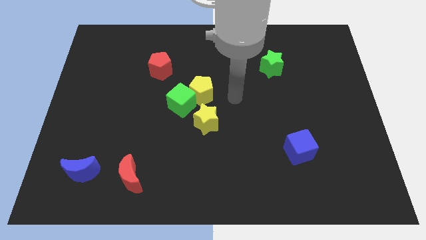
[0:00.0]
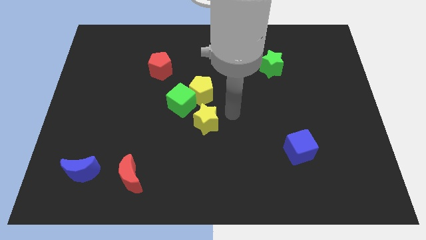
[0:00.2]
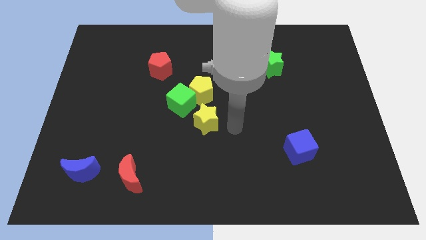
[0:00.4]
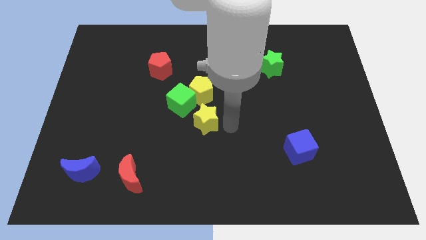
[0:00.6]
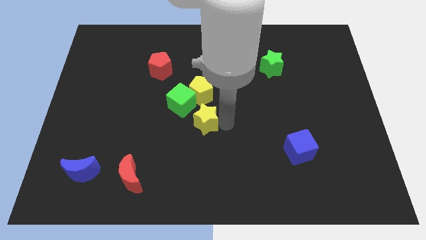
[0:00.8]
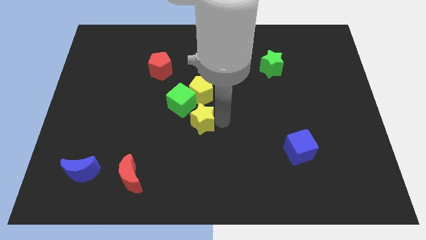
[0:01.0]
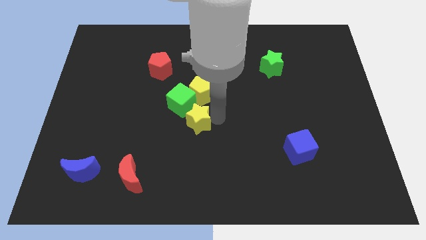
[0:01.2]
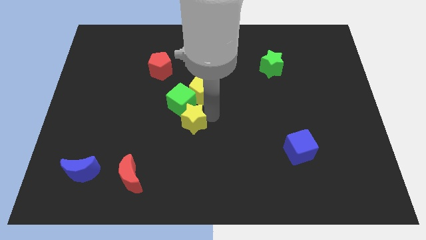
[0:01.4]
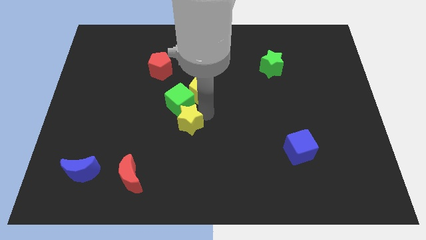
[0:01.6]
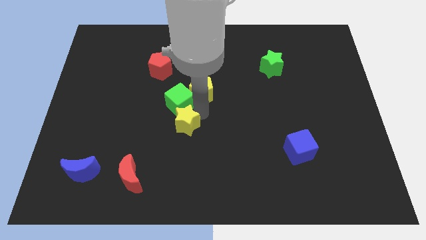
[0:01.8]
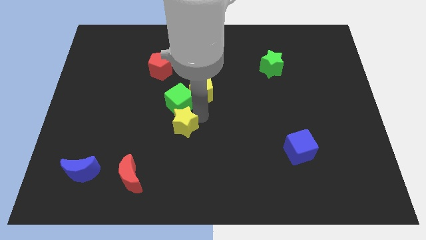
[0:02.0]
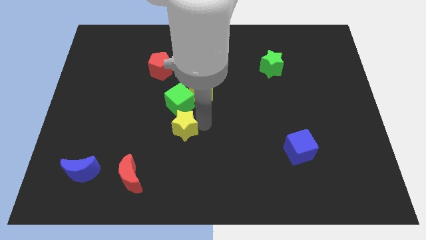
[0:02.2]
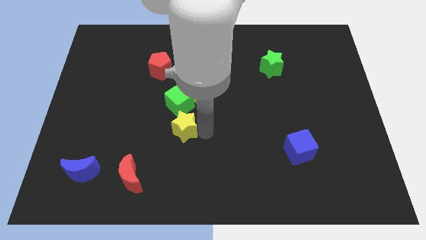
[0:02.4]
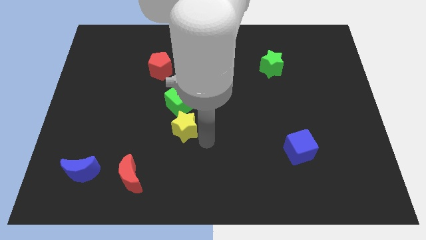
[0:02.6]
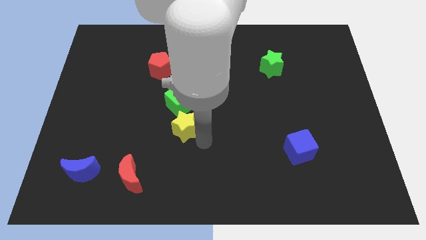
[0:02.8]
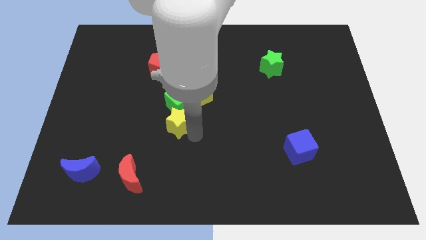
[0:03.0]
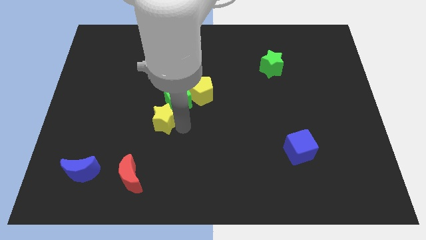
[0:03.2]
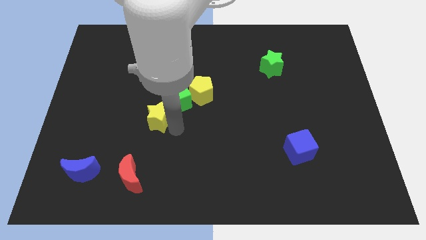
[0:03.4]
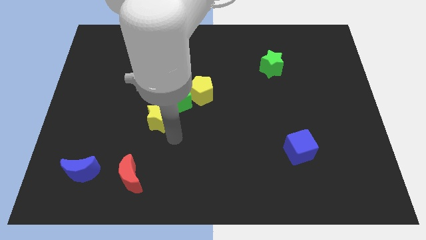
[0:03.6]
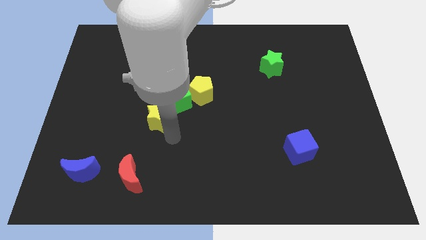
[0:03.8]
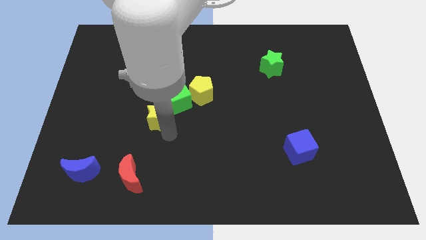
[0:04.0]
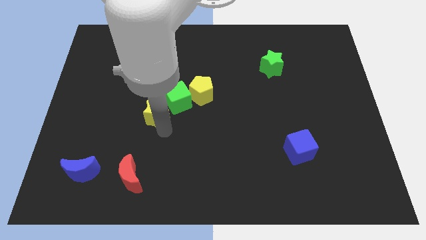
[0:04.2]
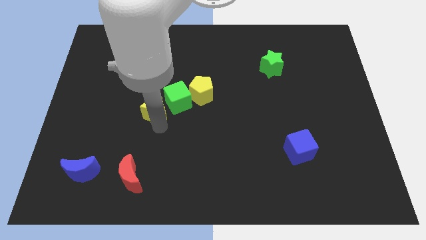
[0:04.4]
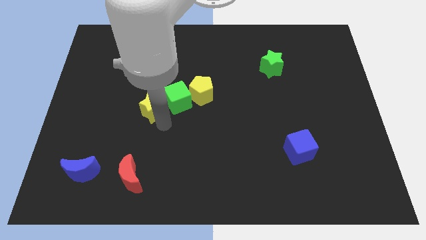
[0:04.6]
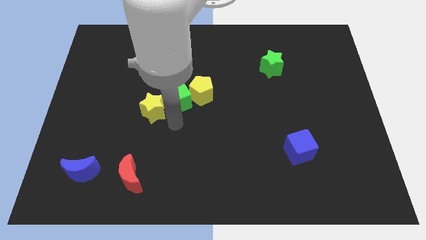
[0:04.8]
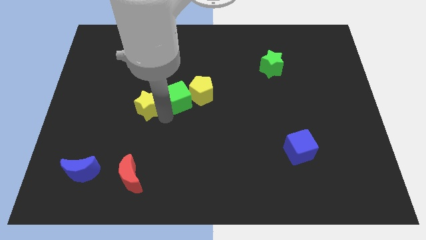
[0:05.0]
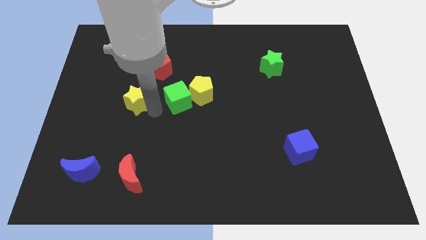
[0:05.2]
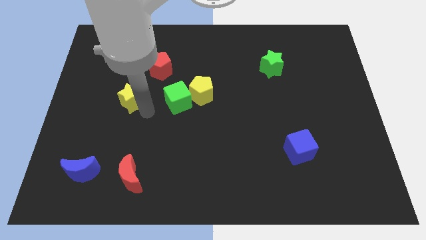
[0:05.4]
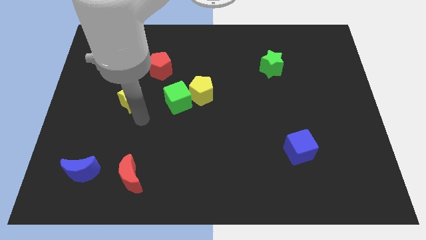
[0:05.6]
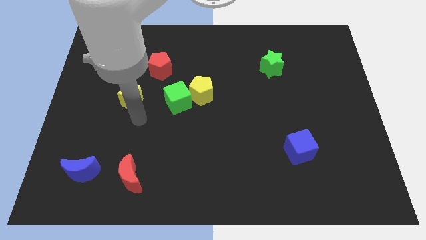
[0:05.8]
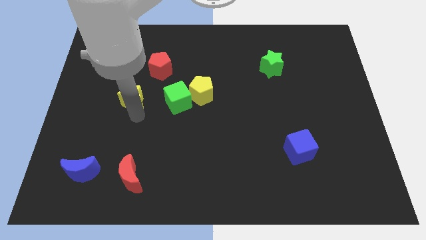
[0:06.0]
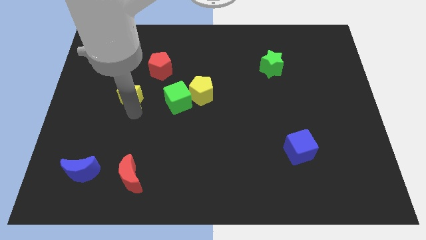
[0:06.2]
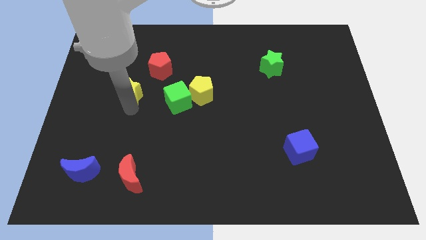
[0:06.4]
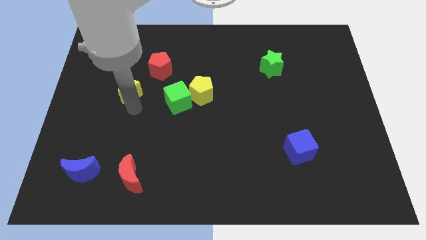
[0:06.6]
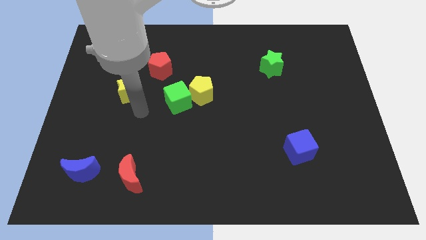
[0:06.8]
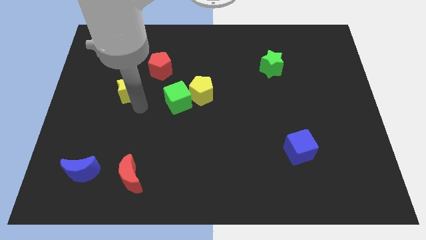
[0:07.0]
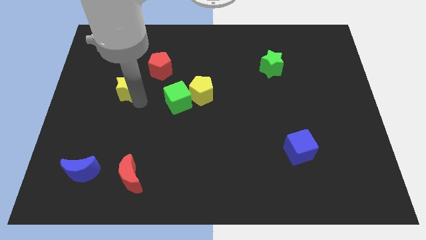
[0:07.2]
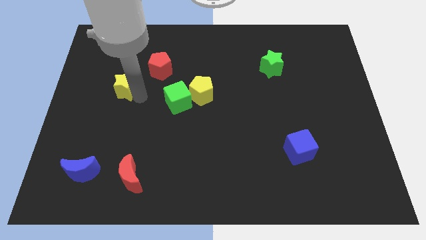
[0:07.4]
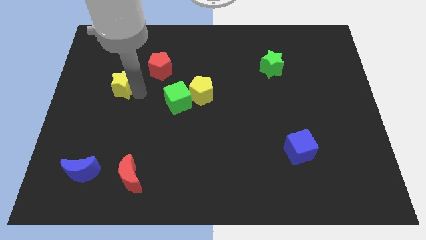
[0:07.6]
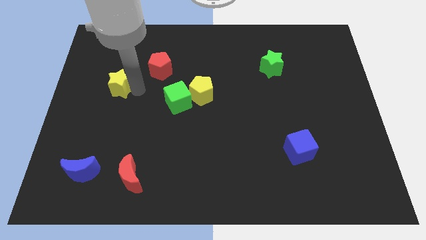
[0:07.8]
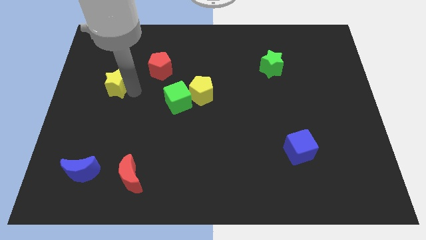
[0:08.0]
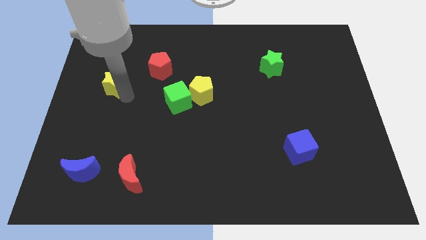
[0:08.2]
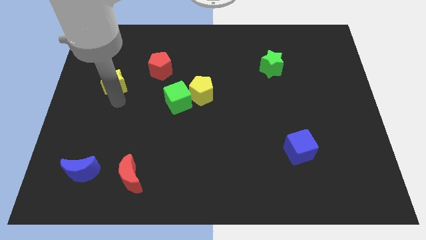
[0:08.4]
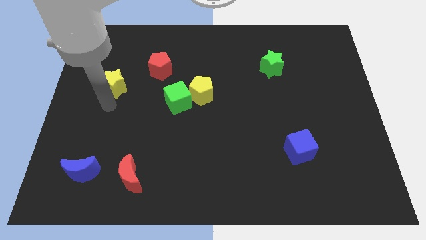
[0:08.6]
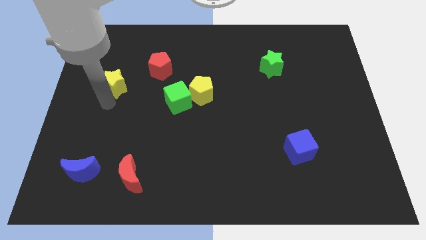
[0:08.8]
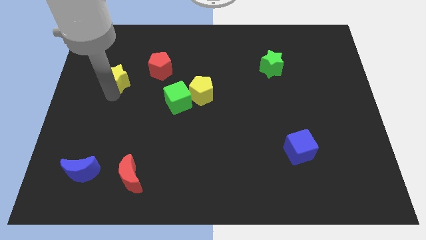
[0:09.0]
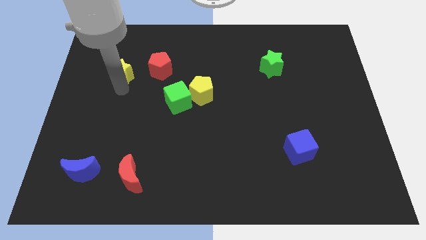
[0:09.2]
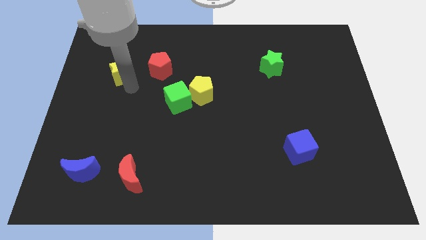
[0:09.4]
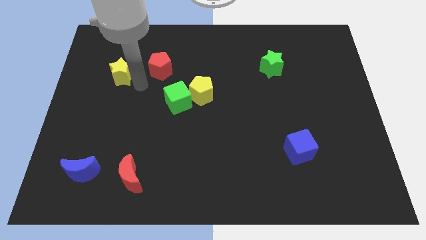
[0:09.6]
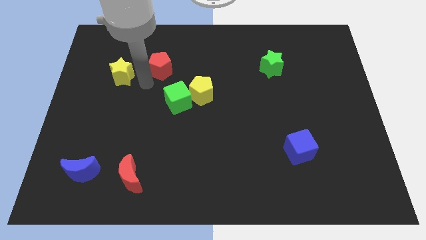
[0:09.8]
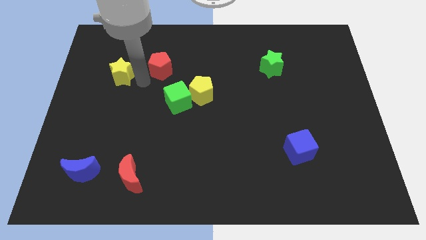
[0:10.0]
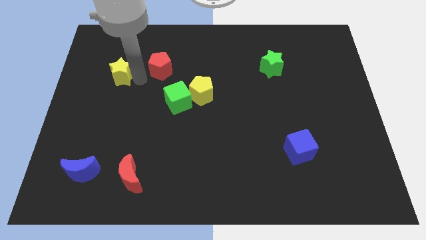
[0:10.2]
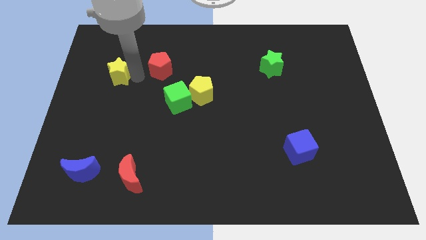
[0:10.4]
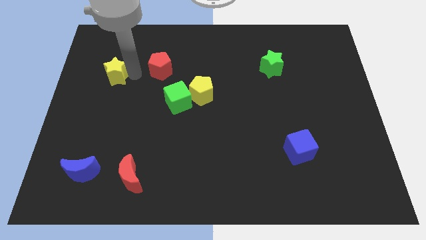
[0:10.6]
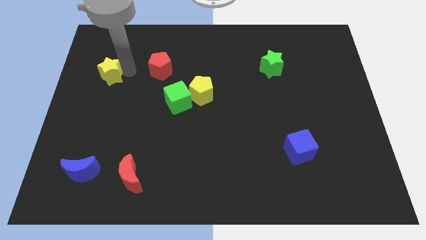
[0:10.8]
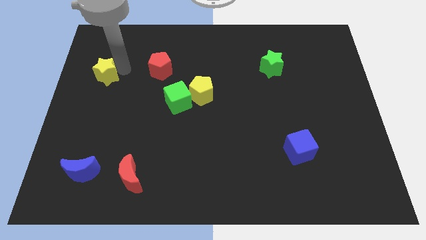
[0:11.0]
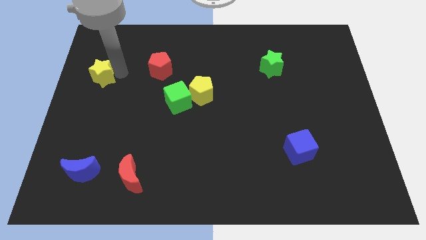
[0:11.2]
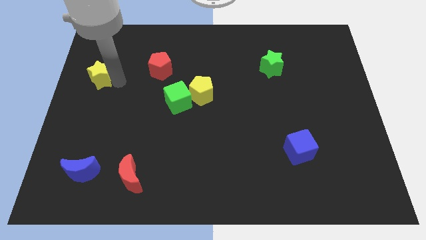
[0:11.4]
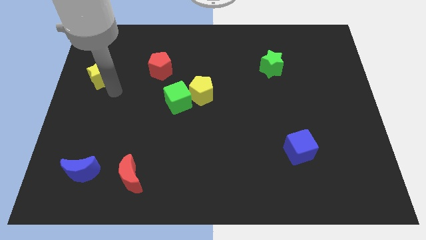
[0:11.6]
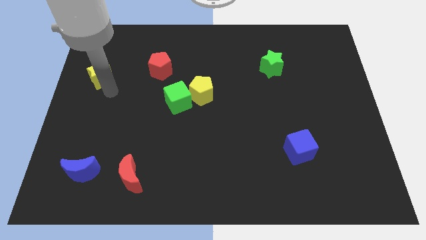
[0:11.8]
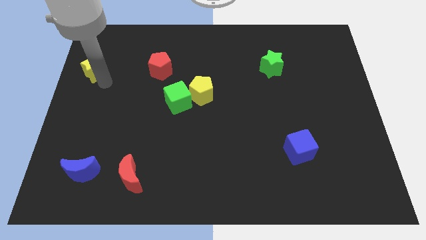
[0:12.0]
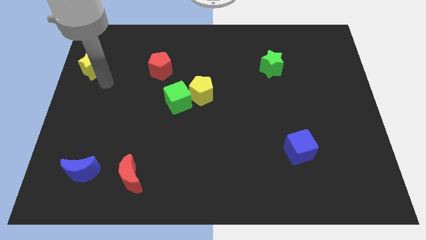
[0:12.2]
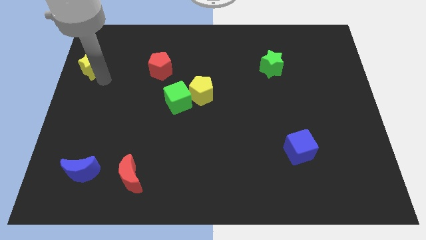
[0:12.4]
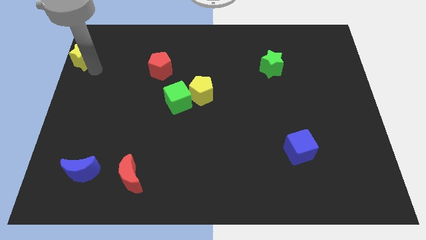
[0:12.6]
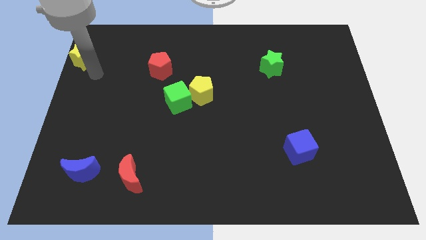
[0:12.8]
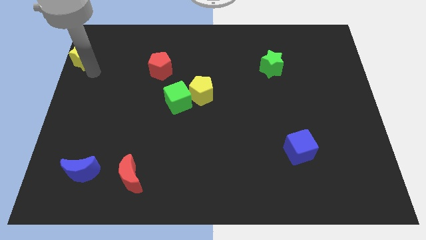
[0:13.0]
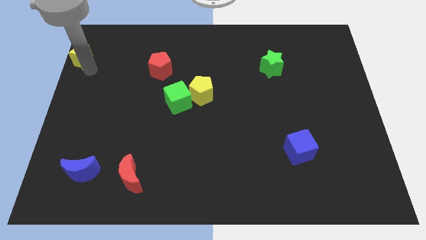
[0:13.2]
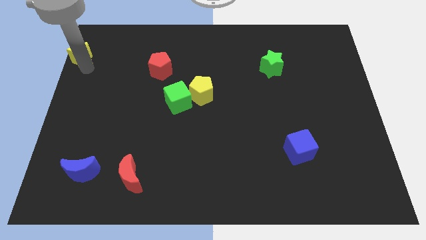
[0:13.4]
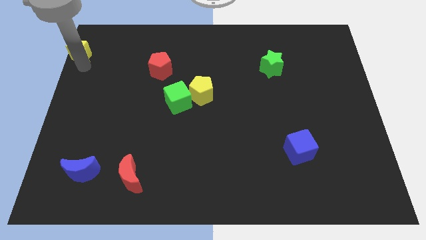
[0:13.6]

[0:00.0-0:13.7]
move the yellow star to the top left corner
